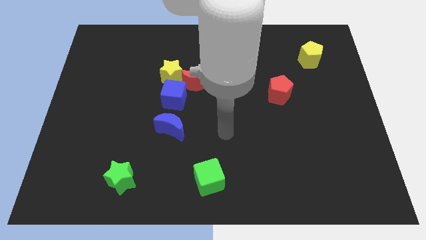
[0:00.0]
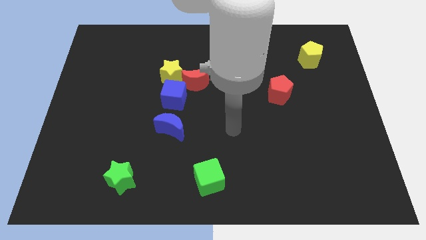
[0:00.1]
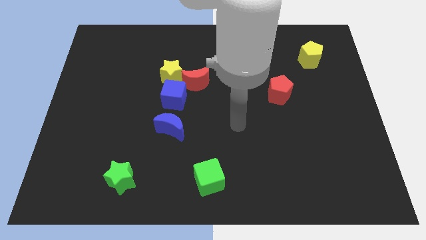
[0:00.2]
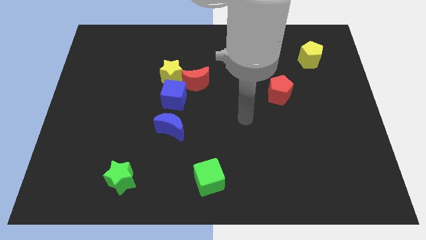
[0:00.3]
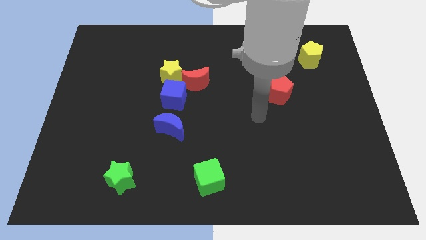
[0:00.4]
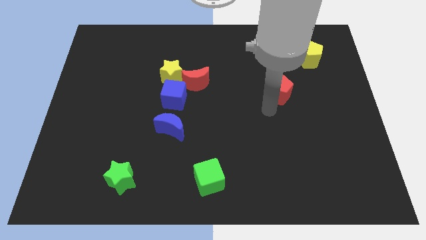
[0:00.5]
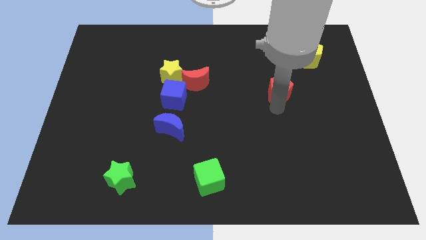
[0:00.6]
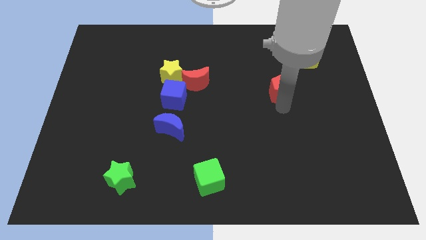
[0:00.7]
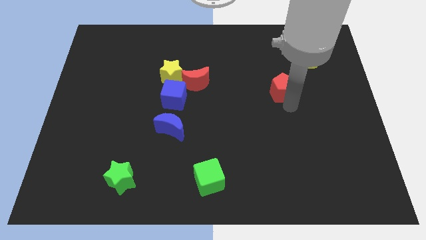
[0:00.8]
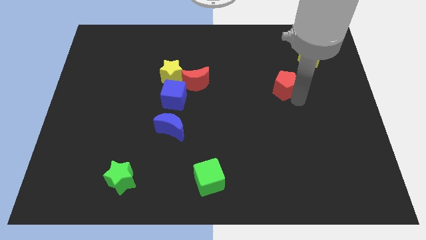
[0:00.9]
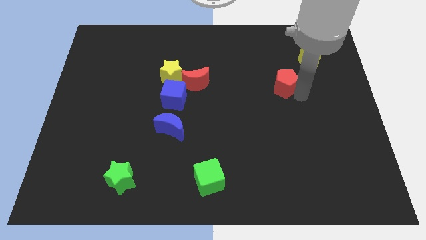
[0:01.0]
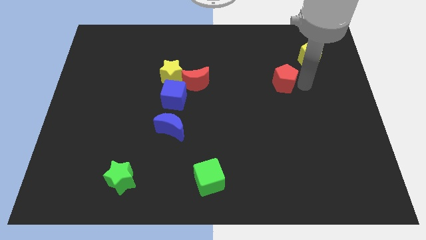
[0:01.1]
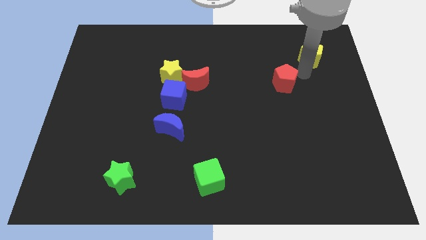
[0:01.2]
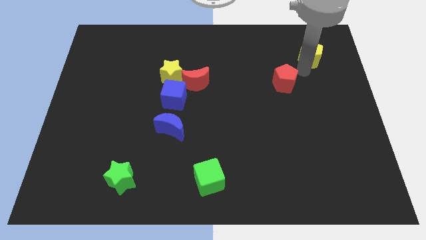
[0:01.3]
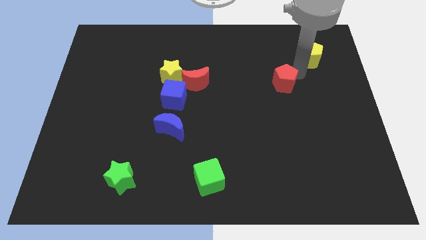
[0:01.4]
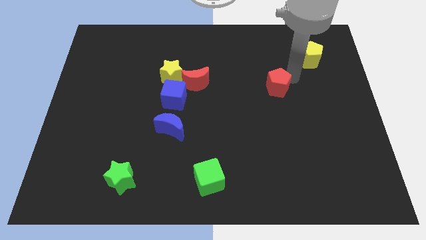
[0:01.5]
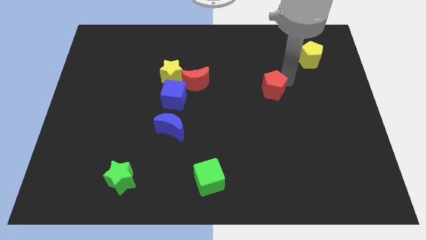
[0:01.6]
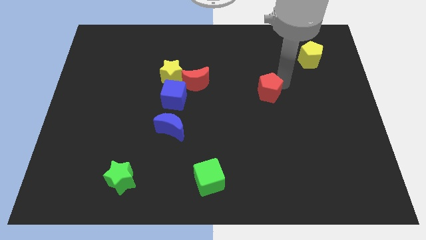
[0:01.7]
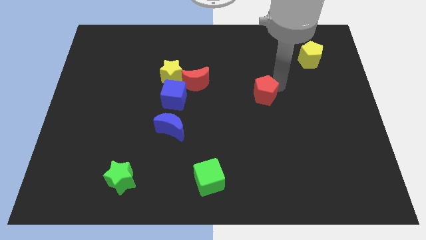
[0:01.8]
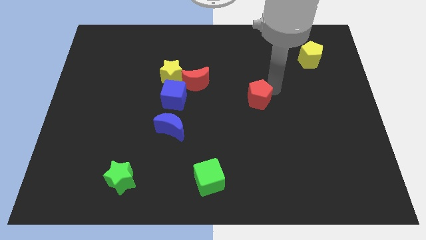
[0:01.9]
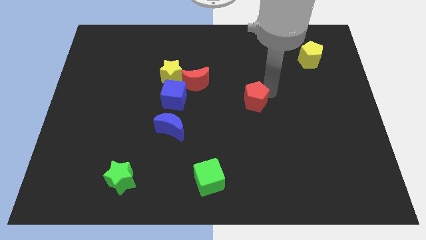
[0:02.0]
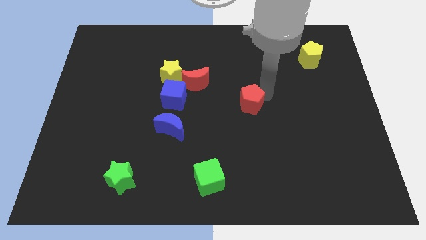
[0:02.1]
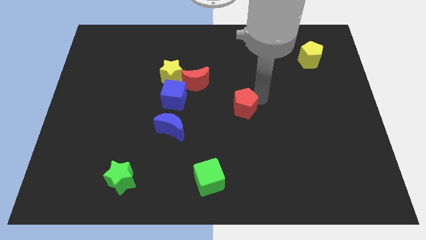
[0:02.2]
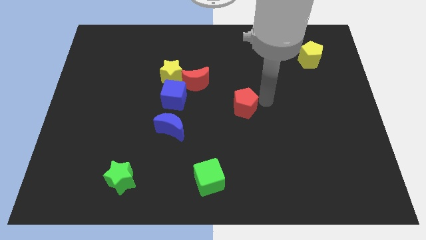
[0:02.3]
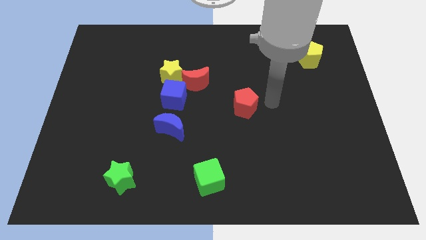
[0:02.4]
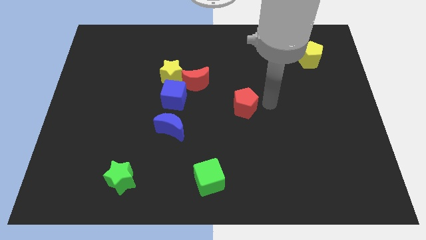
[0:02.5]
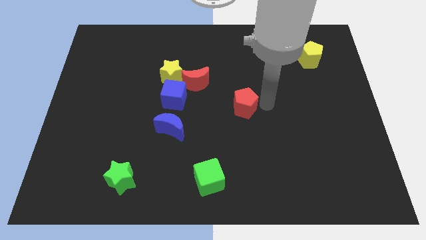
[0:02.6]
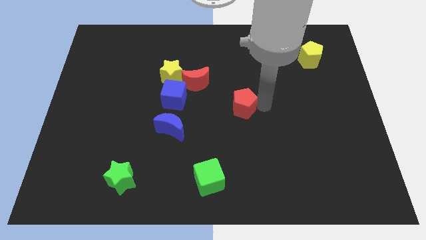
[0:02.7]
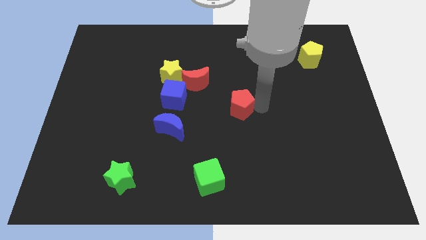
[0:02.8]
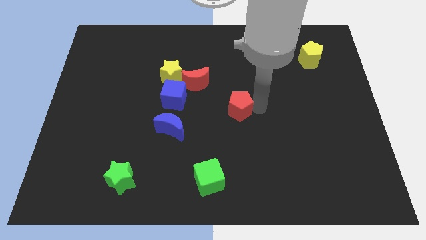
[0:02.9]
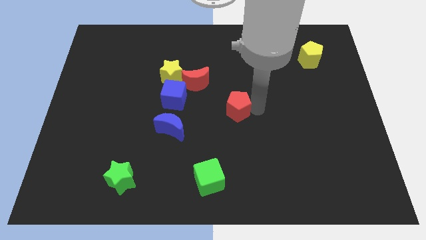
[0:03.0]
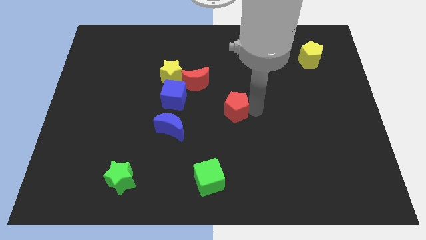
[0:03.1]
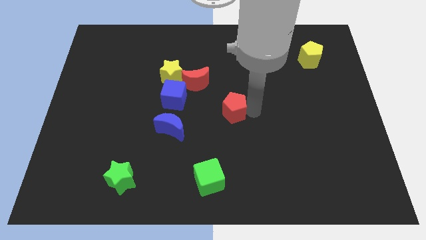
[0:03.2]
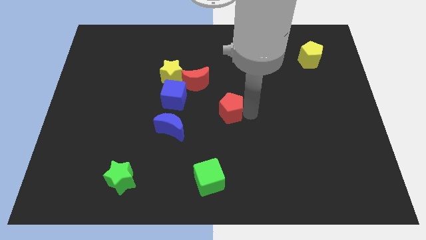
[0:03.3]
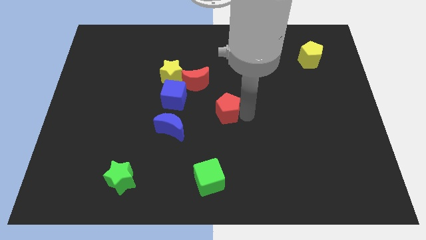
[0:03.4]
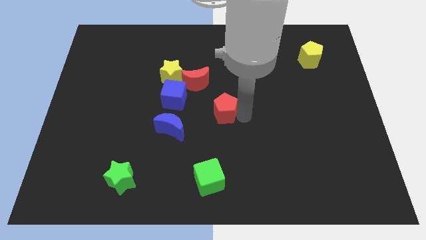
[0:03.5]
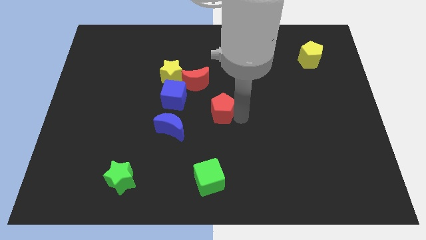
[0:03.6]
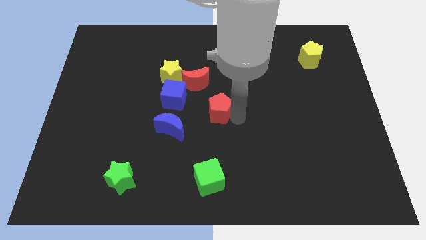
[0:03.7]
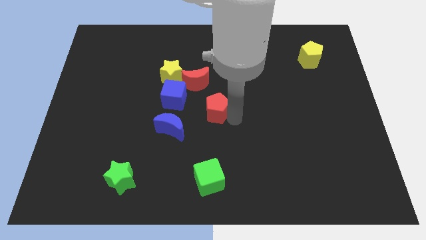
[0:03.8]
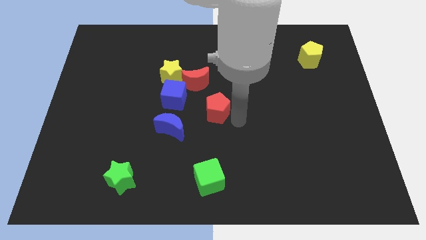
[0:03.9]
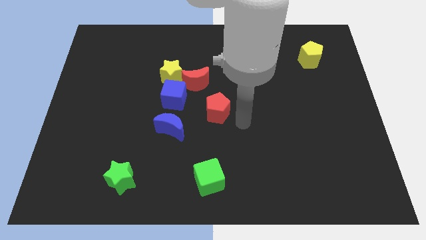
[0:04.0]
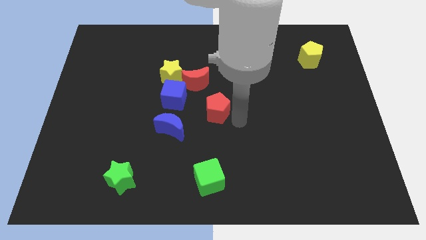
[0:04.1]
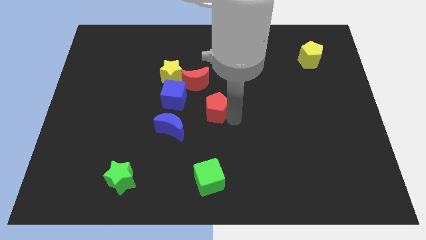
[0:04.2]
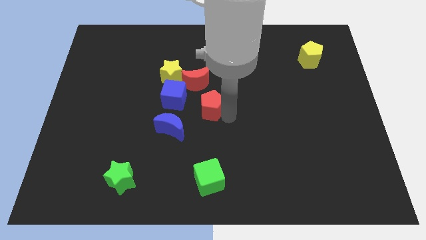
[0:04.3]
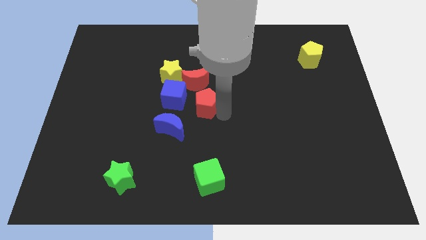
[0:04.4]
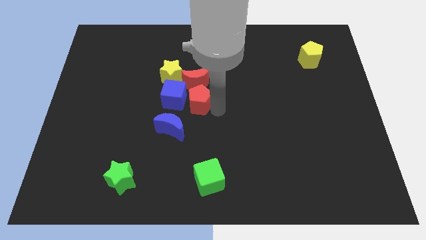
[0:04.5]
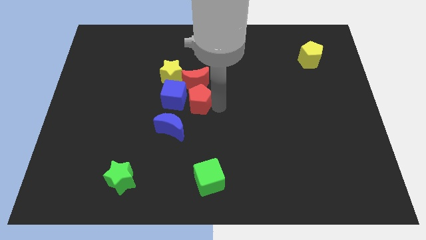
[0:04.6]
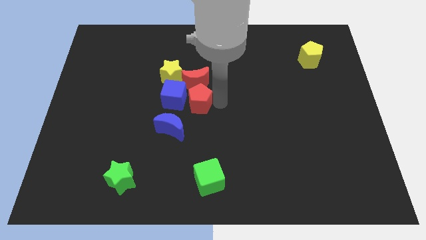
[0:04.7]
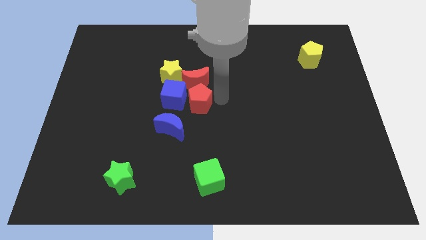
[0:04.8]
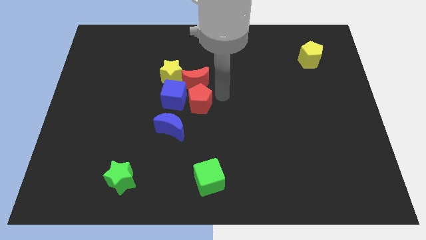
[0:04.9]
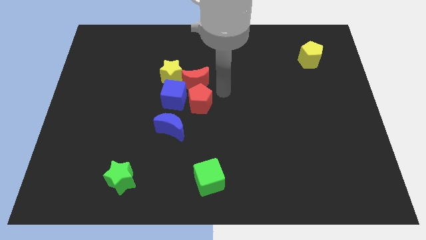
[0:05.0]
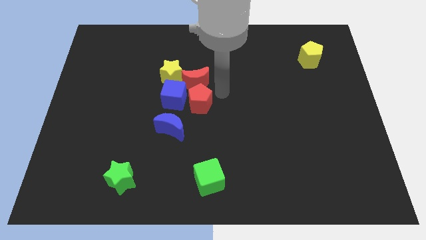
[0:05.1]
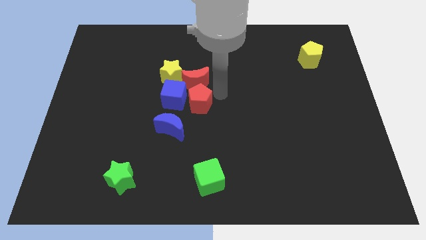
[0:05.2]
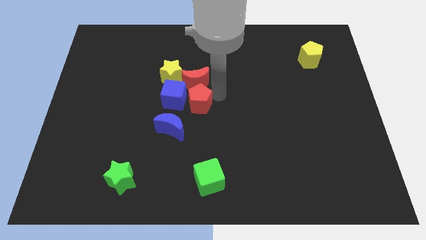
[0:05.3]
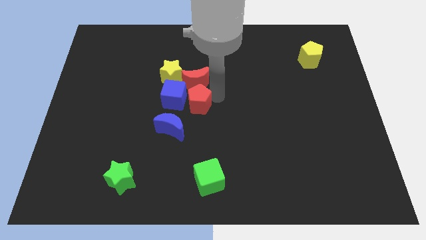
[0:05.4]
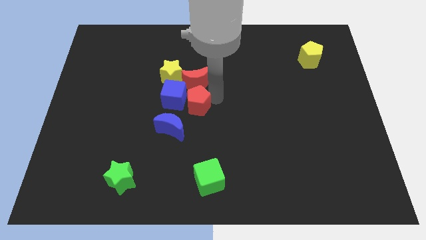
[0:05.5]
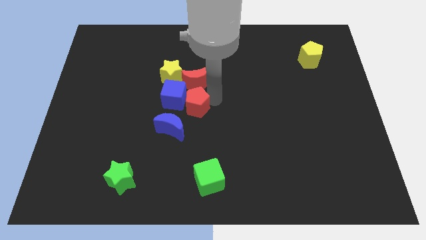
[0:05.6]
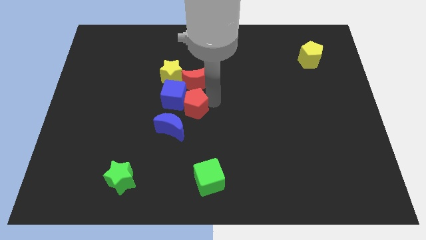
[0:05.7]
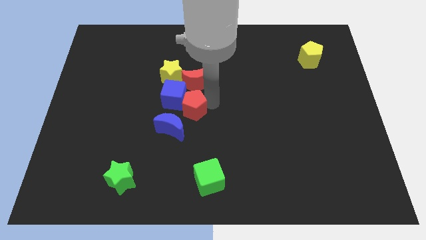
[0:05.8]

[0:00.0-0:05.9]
move the red pentagon left

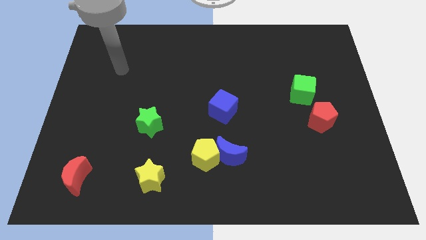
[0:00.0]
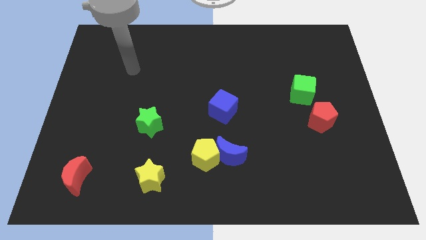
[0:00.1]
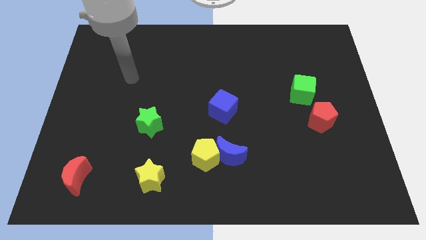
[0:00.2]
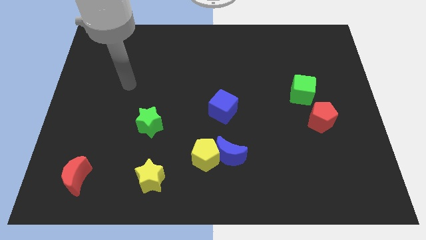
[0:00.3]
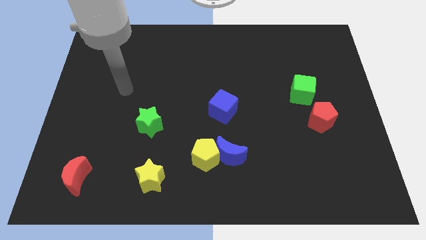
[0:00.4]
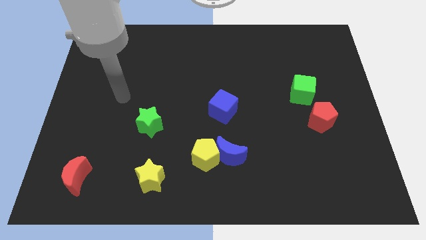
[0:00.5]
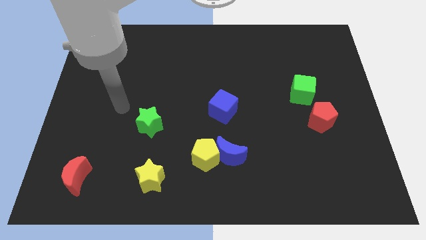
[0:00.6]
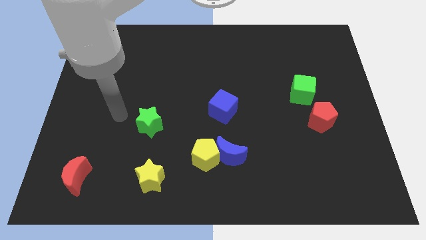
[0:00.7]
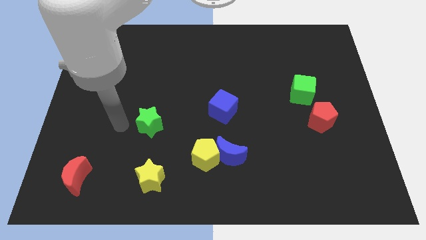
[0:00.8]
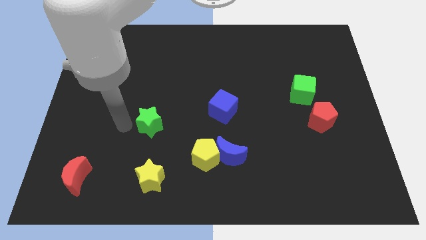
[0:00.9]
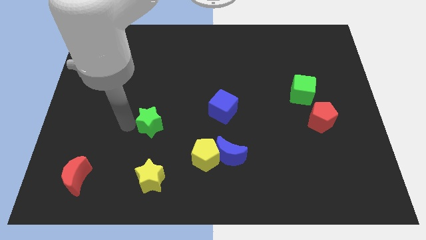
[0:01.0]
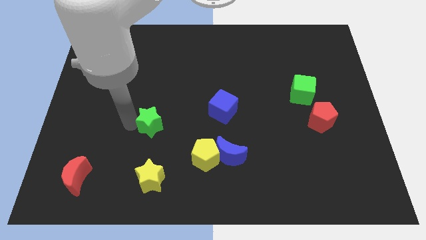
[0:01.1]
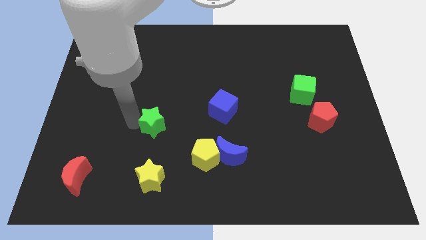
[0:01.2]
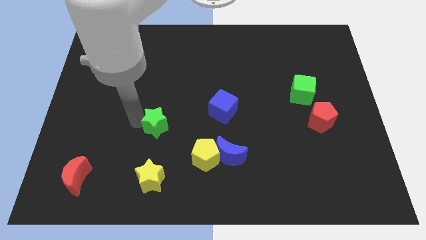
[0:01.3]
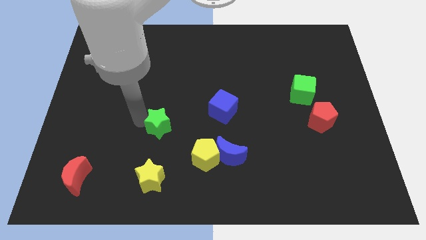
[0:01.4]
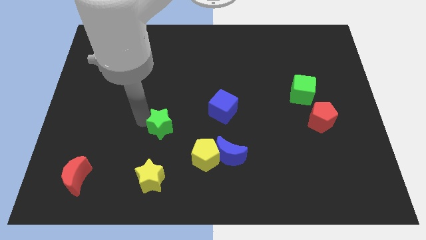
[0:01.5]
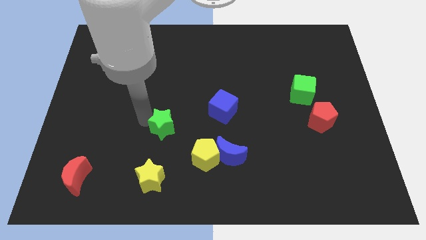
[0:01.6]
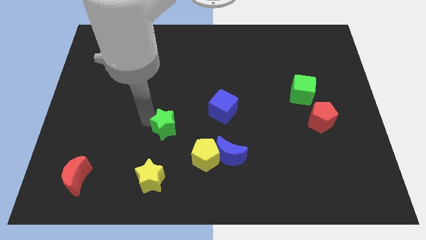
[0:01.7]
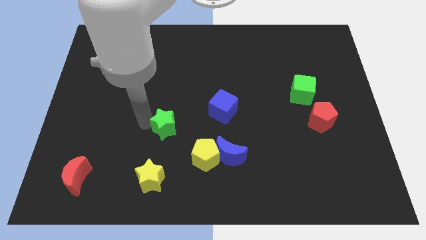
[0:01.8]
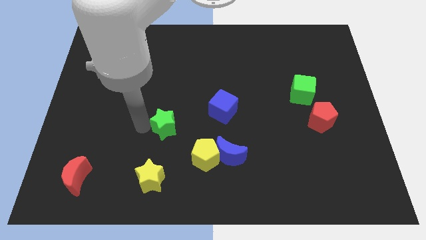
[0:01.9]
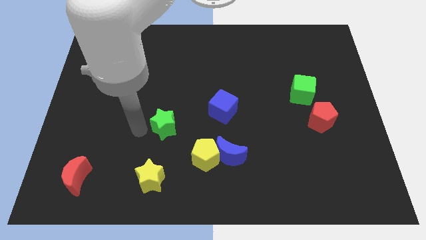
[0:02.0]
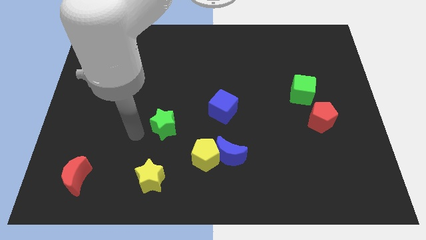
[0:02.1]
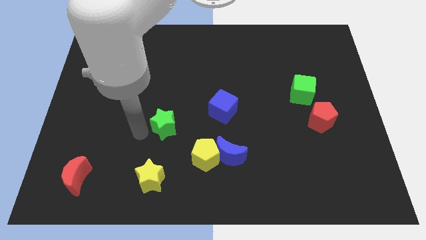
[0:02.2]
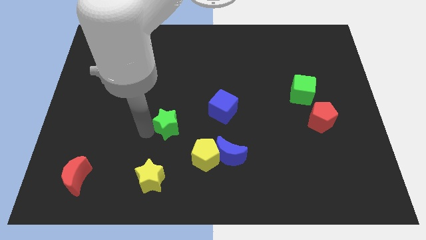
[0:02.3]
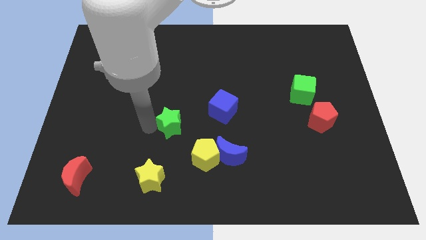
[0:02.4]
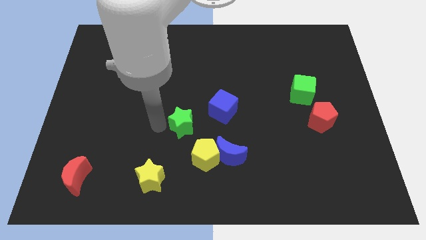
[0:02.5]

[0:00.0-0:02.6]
slightly move the green star right
